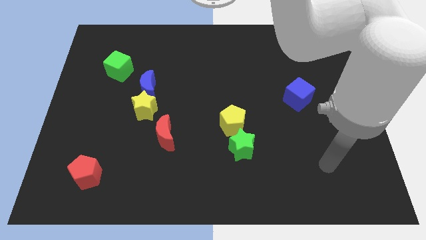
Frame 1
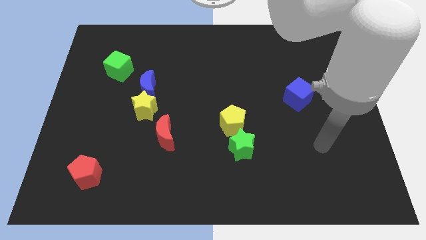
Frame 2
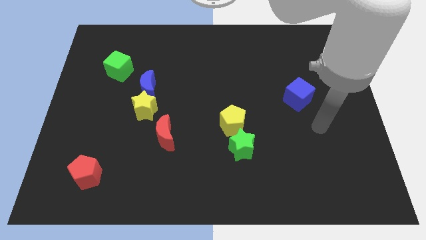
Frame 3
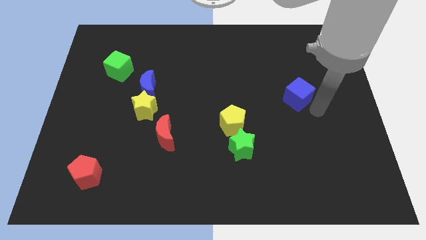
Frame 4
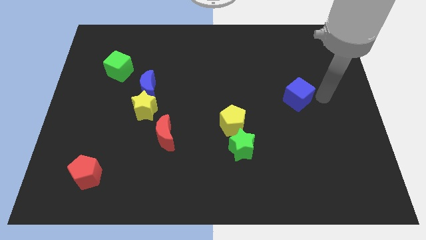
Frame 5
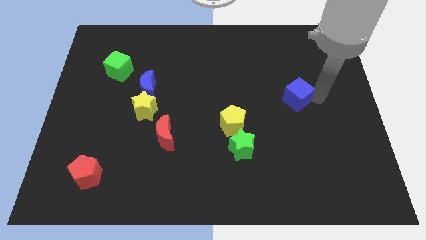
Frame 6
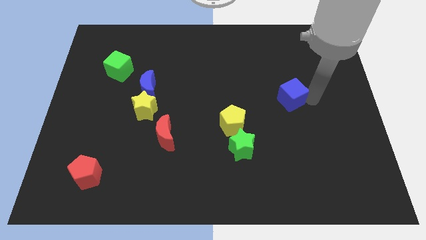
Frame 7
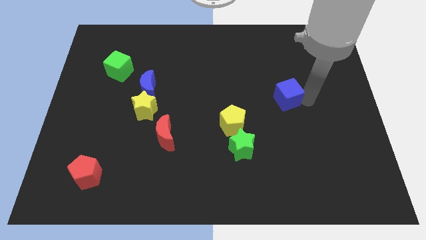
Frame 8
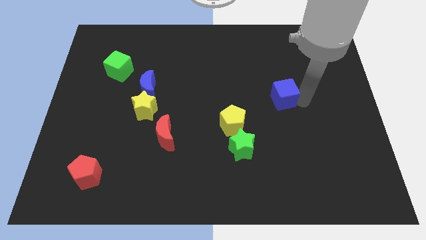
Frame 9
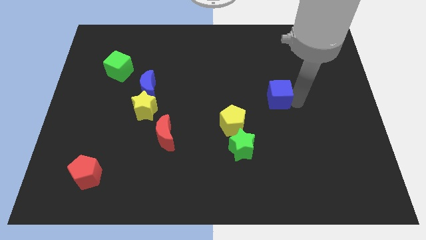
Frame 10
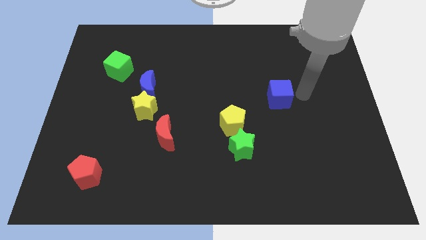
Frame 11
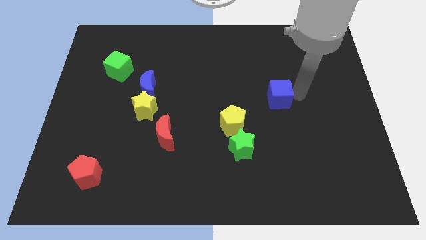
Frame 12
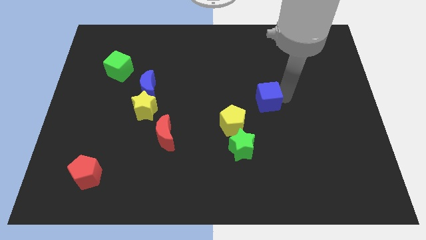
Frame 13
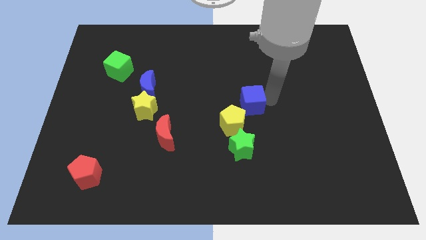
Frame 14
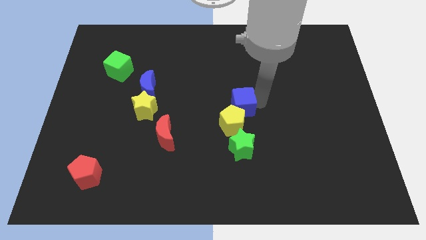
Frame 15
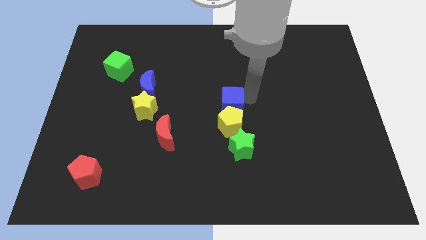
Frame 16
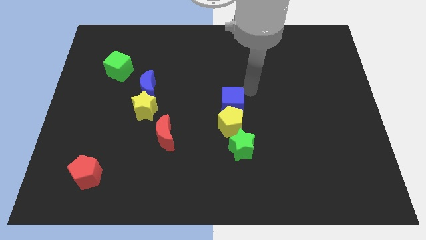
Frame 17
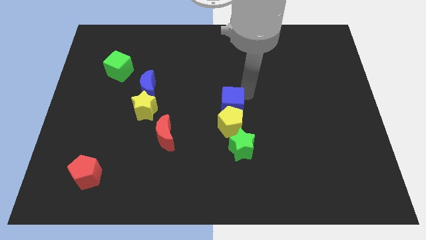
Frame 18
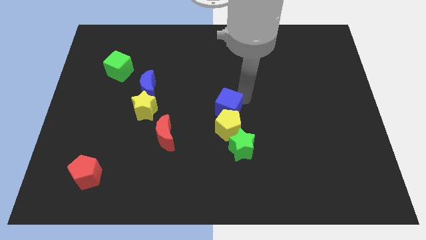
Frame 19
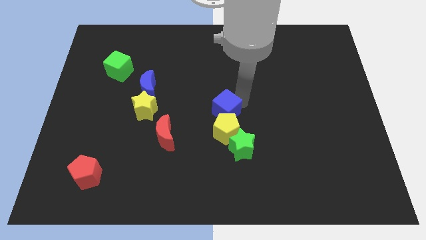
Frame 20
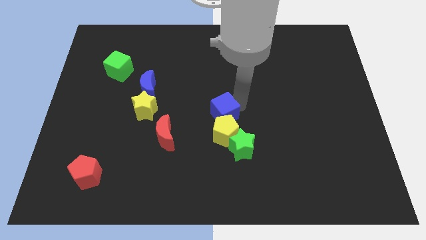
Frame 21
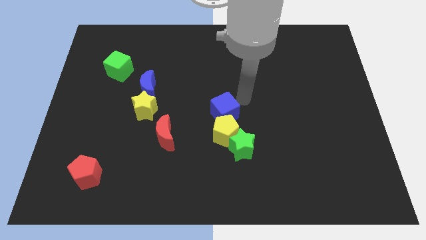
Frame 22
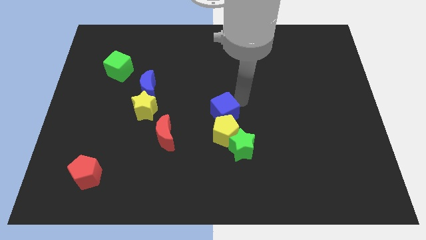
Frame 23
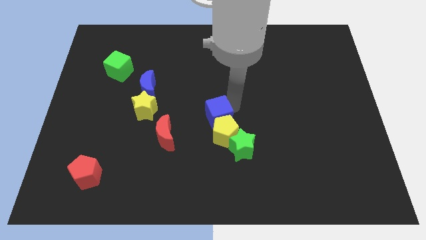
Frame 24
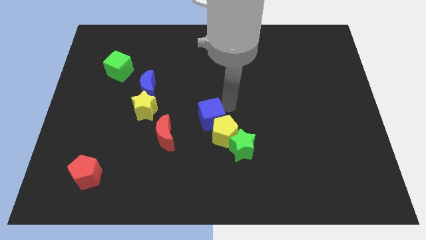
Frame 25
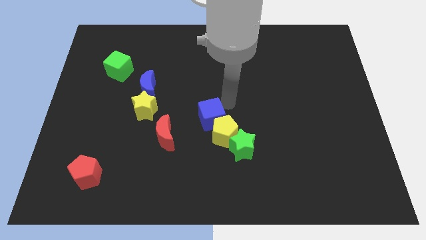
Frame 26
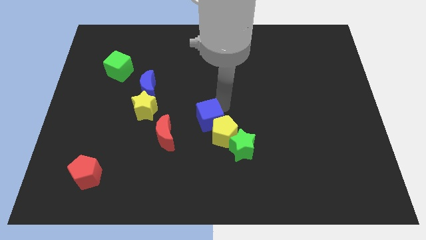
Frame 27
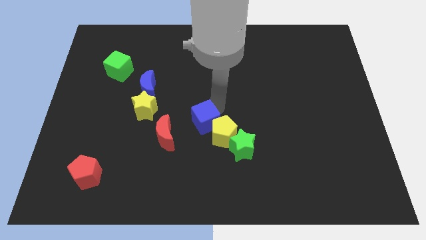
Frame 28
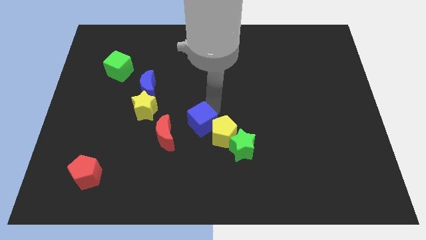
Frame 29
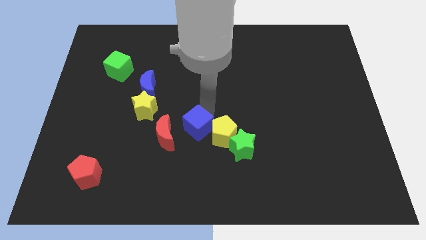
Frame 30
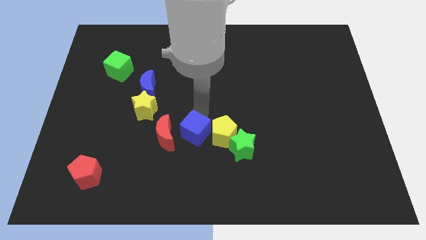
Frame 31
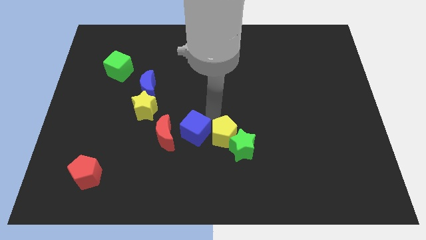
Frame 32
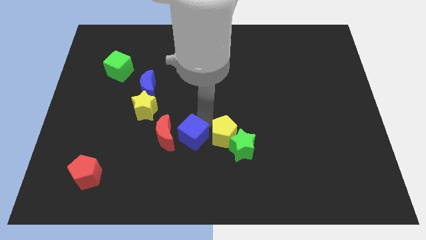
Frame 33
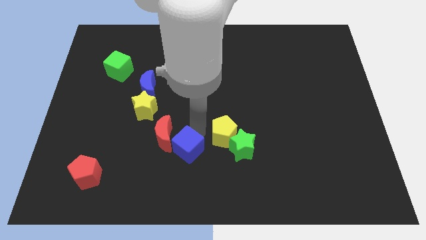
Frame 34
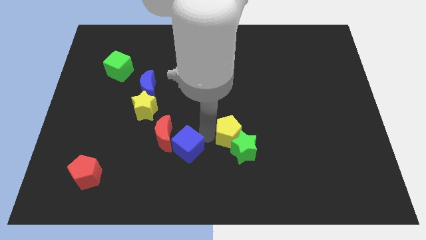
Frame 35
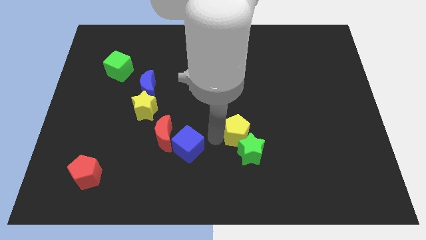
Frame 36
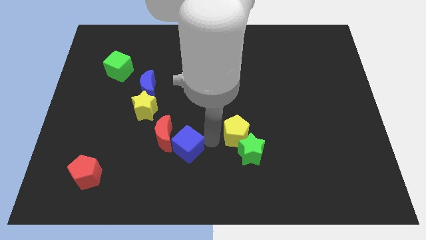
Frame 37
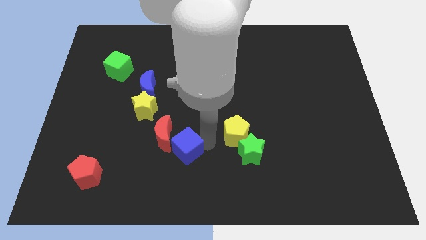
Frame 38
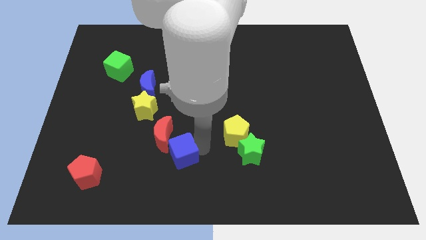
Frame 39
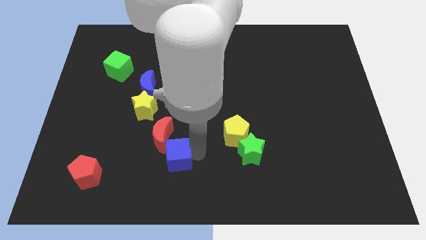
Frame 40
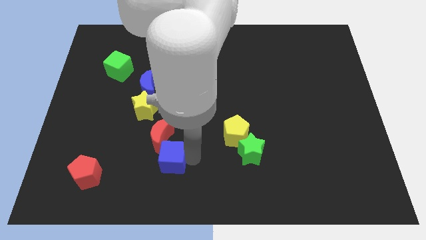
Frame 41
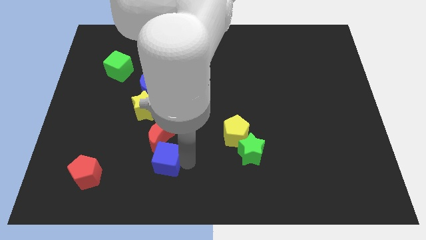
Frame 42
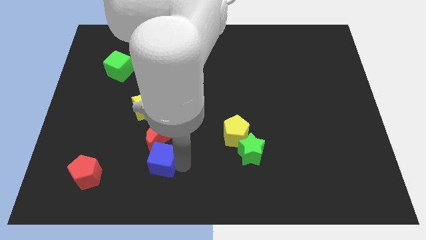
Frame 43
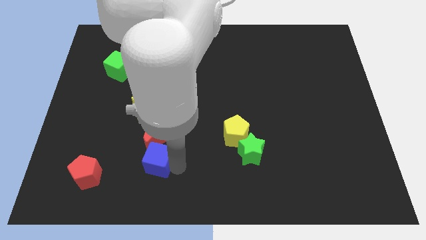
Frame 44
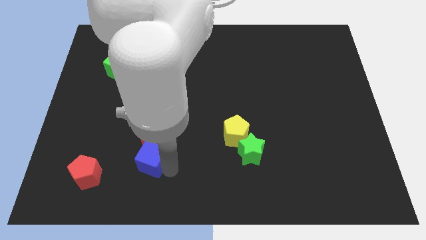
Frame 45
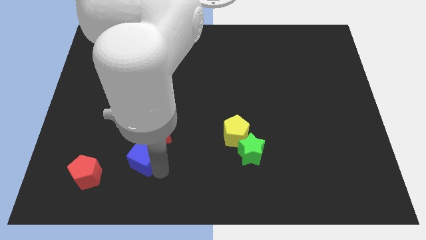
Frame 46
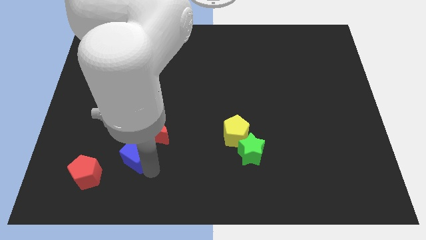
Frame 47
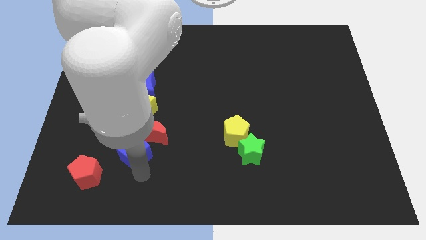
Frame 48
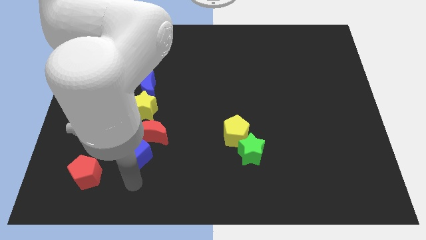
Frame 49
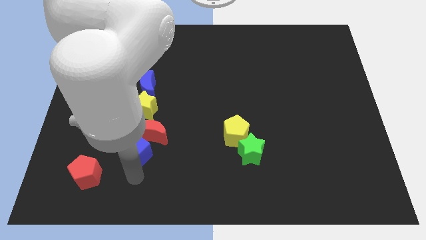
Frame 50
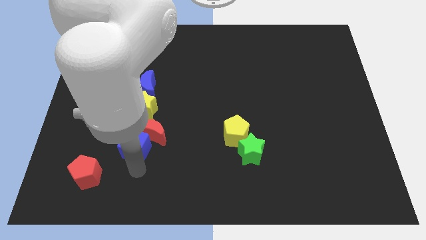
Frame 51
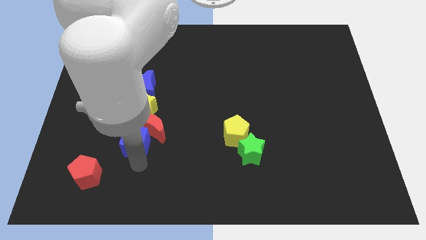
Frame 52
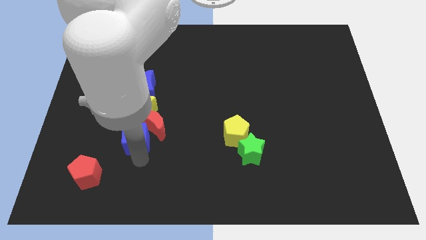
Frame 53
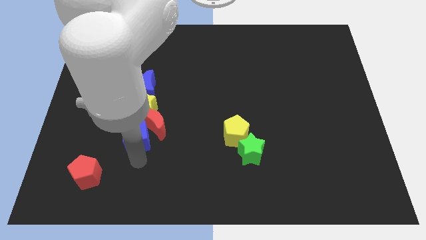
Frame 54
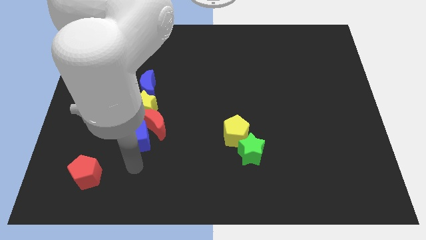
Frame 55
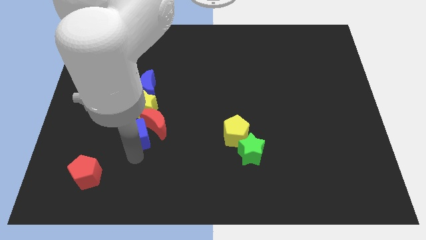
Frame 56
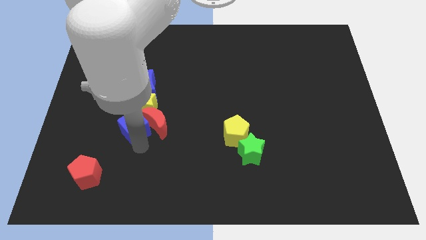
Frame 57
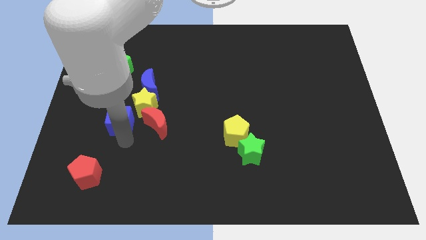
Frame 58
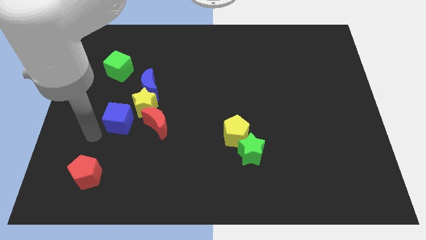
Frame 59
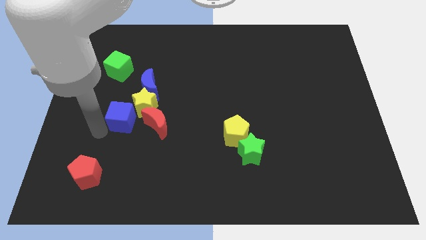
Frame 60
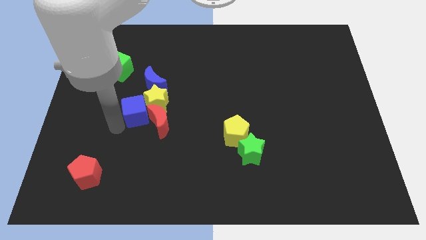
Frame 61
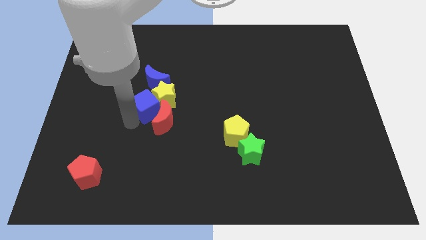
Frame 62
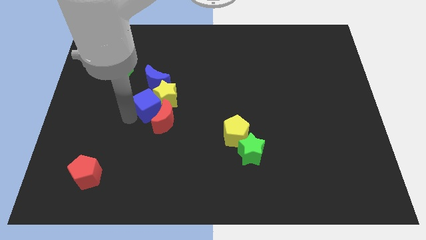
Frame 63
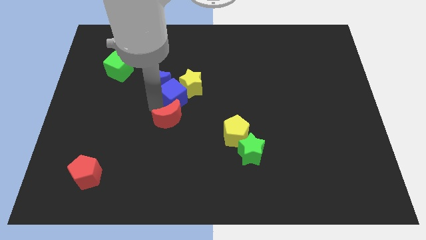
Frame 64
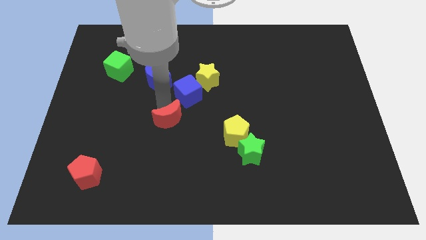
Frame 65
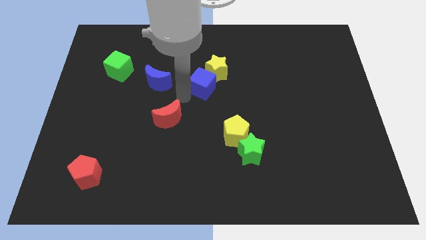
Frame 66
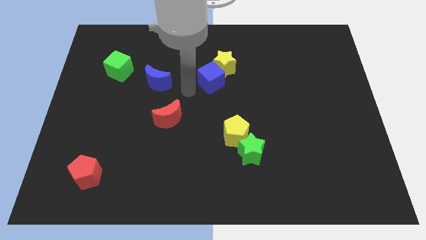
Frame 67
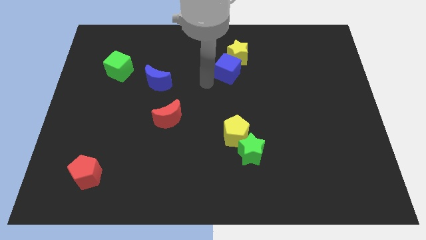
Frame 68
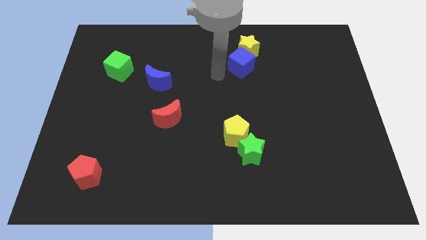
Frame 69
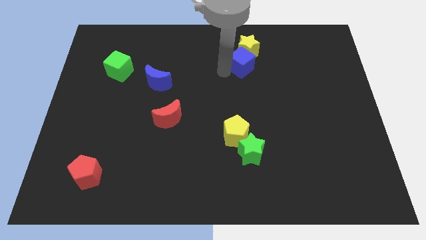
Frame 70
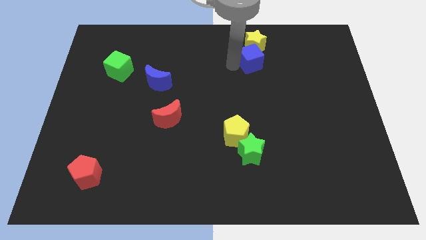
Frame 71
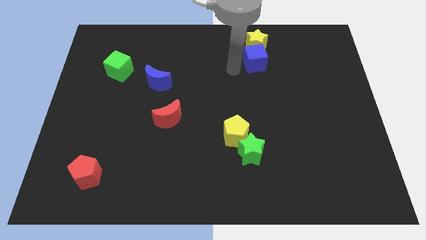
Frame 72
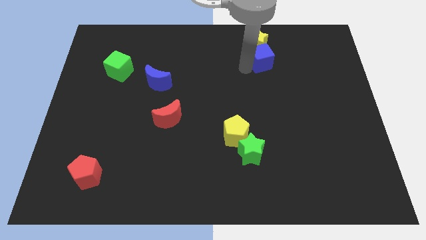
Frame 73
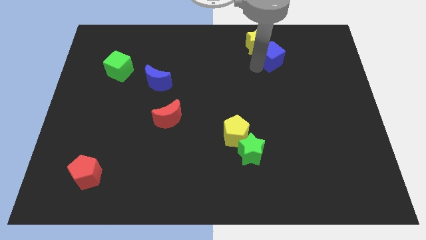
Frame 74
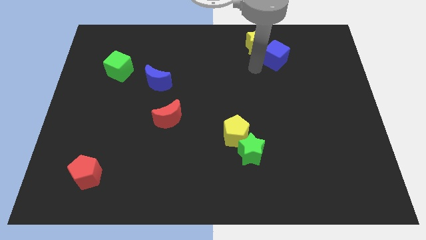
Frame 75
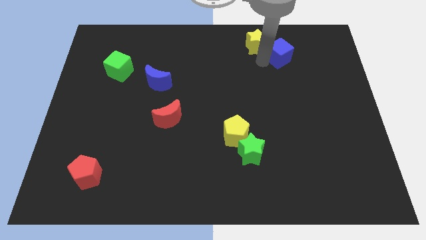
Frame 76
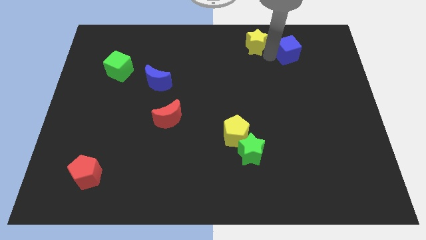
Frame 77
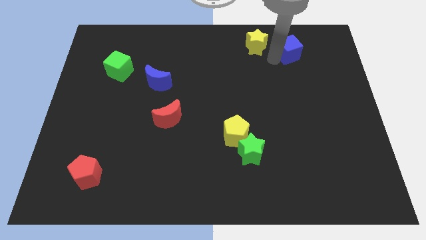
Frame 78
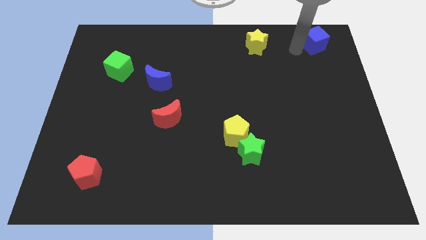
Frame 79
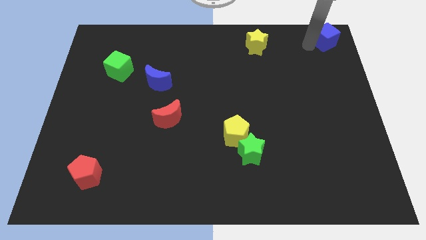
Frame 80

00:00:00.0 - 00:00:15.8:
push the blue cube to the top right of the board
